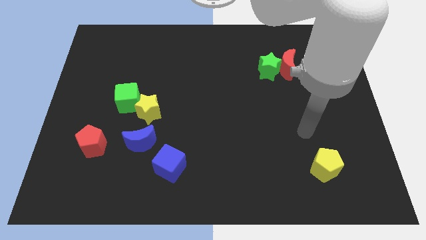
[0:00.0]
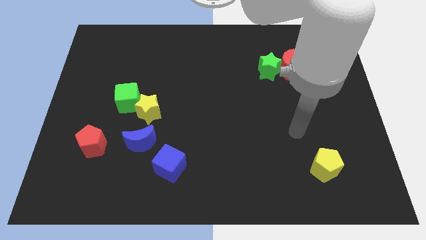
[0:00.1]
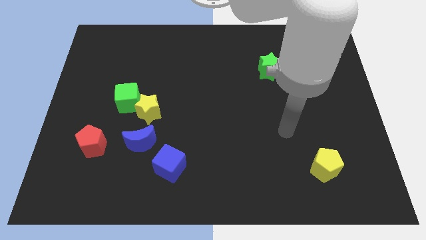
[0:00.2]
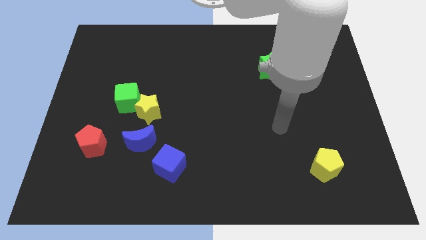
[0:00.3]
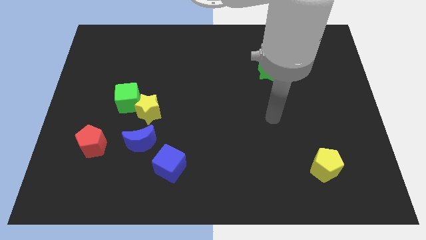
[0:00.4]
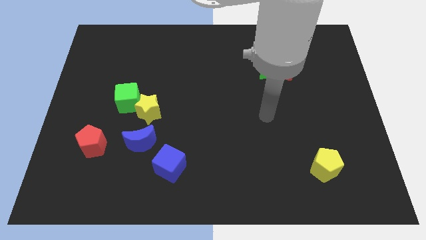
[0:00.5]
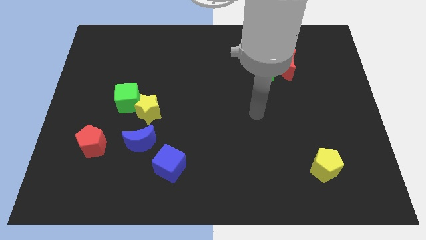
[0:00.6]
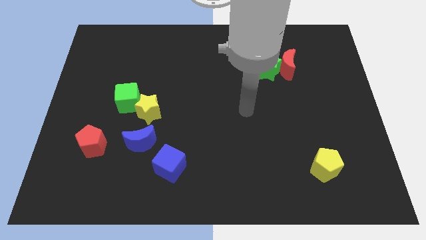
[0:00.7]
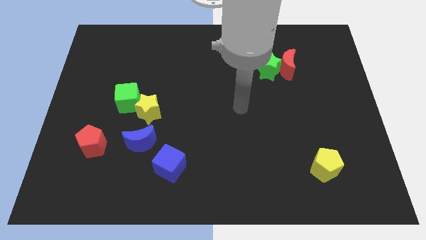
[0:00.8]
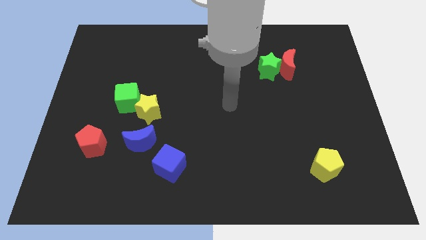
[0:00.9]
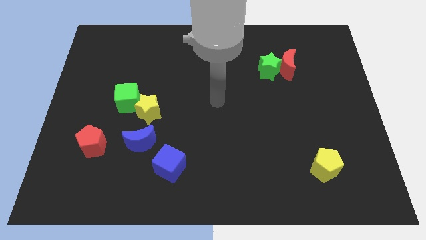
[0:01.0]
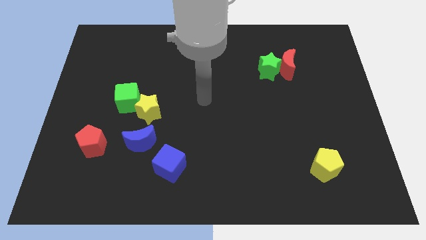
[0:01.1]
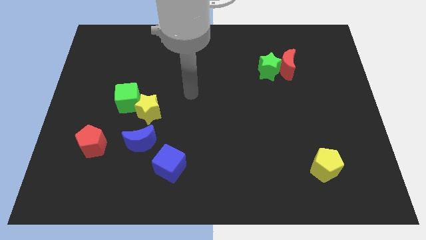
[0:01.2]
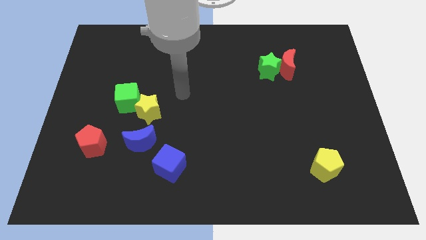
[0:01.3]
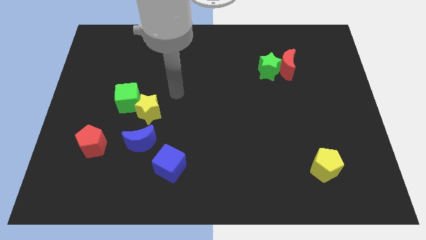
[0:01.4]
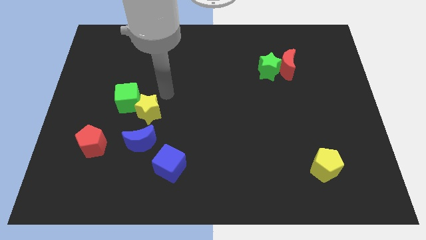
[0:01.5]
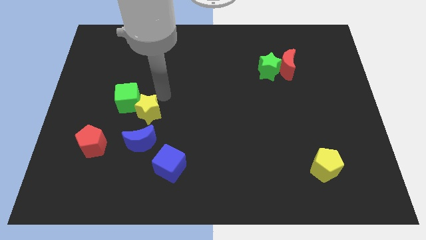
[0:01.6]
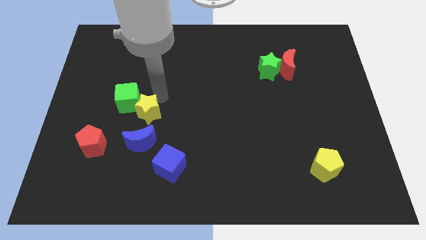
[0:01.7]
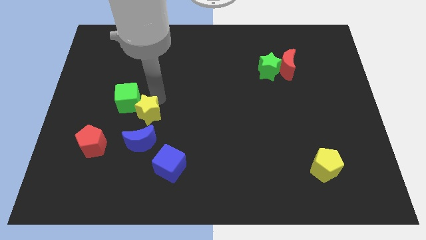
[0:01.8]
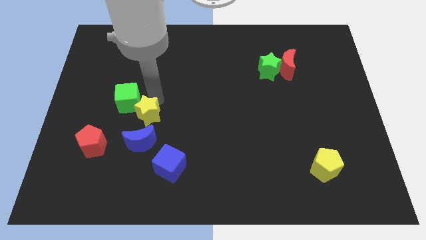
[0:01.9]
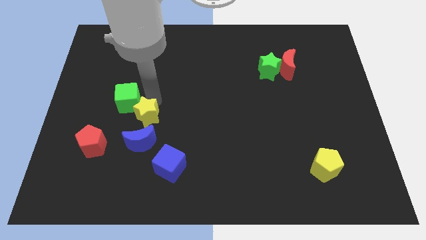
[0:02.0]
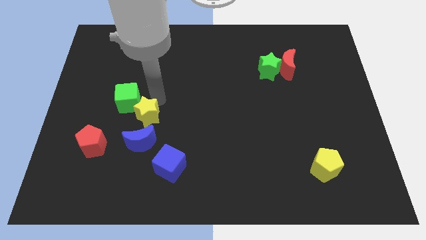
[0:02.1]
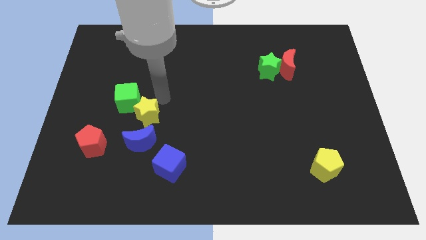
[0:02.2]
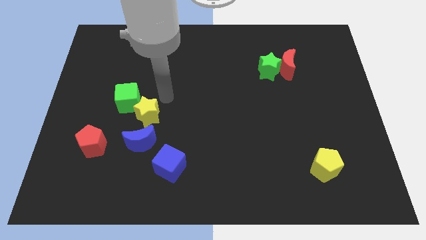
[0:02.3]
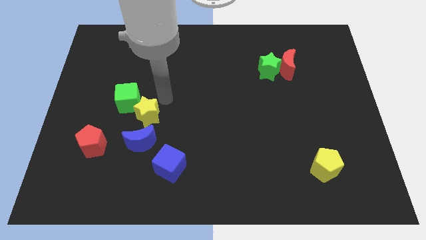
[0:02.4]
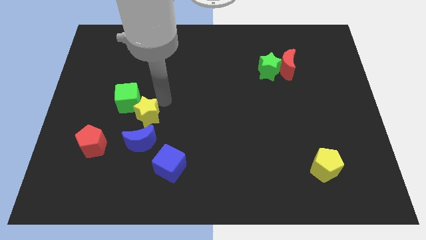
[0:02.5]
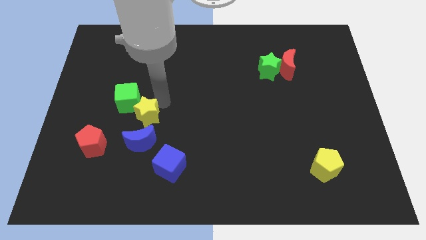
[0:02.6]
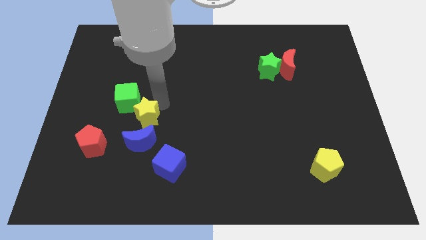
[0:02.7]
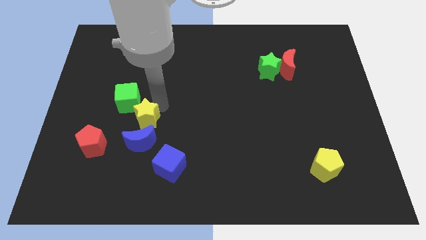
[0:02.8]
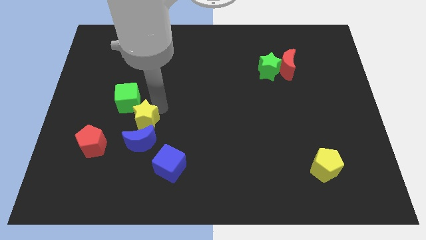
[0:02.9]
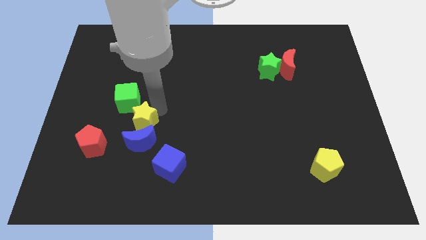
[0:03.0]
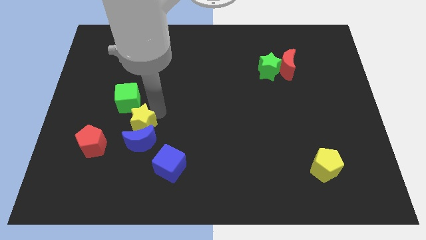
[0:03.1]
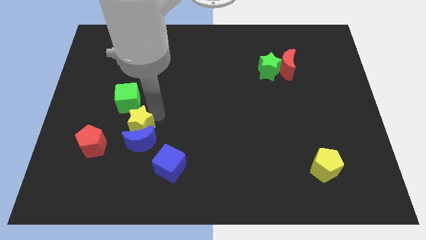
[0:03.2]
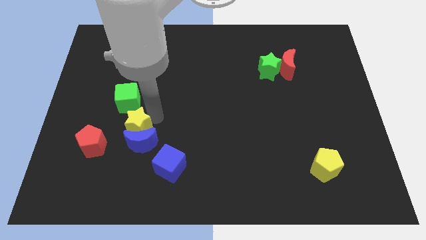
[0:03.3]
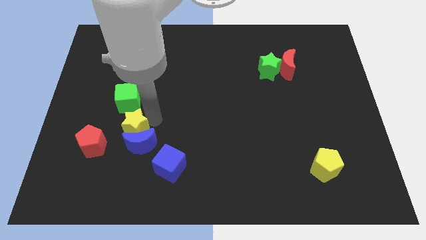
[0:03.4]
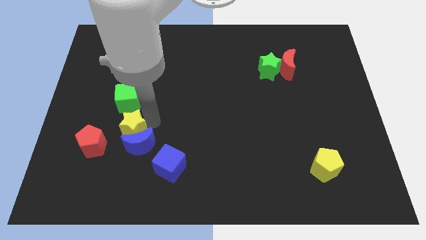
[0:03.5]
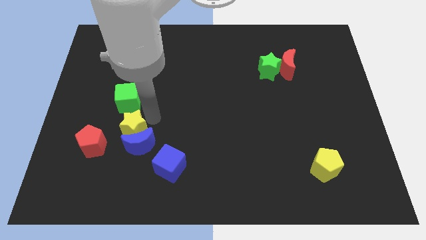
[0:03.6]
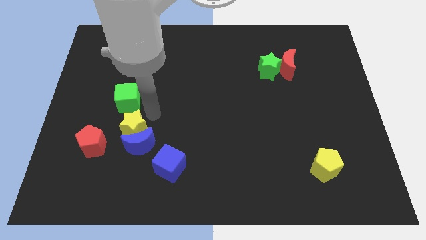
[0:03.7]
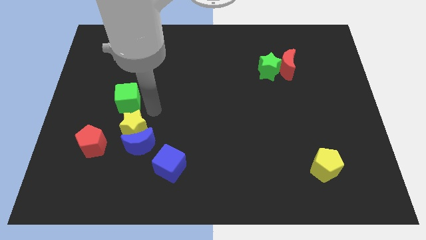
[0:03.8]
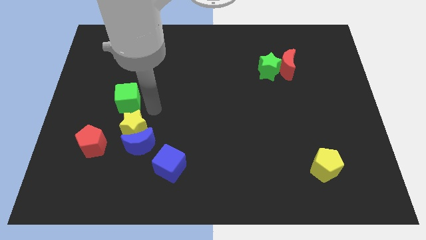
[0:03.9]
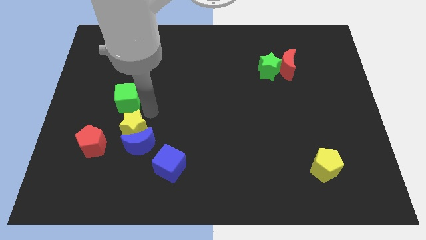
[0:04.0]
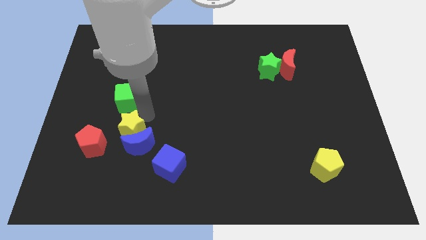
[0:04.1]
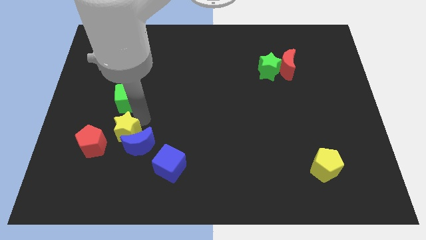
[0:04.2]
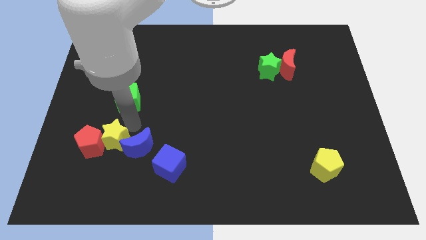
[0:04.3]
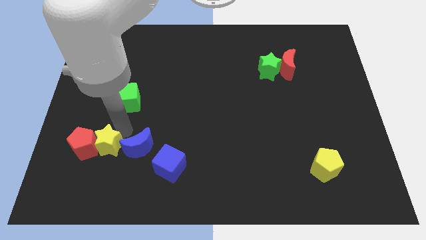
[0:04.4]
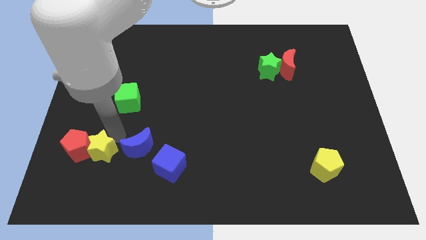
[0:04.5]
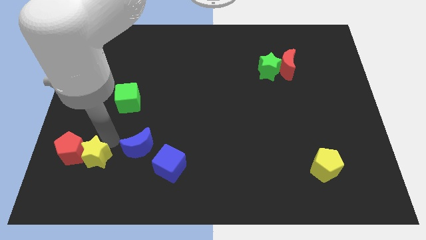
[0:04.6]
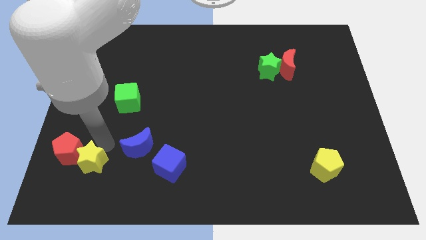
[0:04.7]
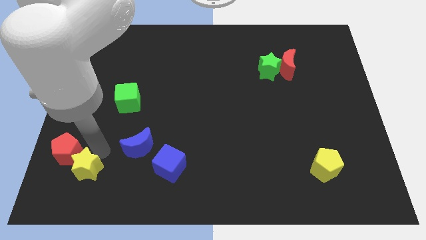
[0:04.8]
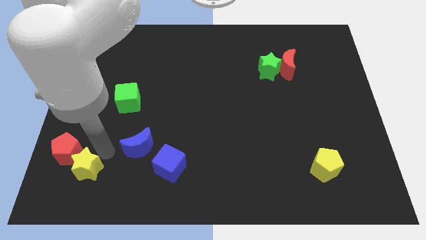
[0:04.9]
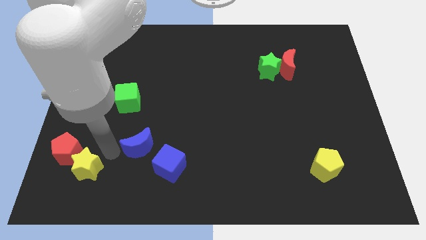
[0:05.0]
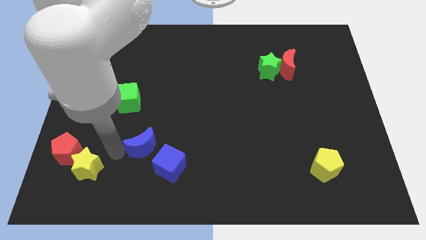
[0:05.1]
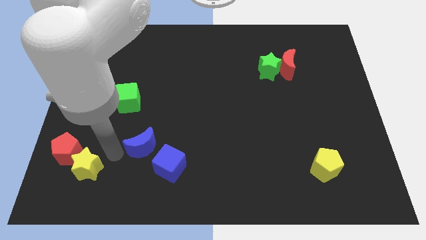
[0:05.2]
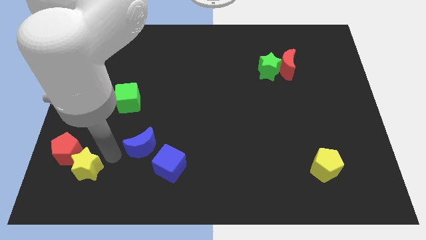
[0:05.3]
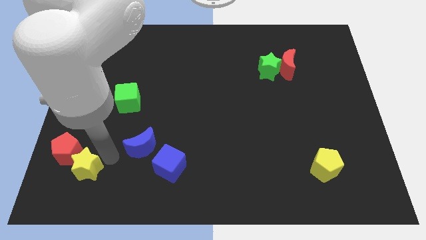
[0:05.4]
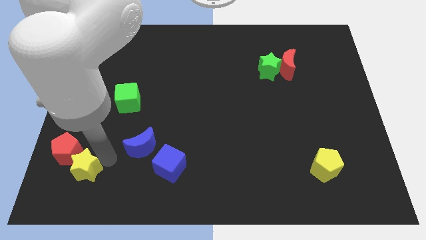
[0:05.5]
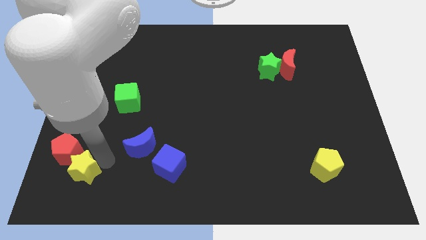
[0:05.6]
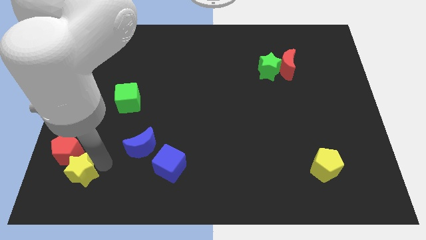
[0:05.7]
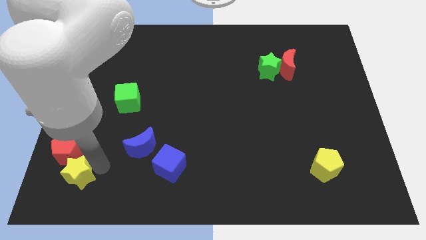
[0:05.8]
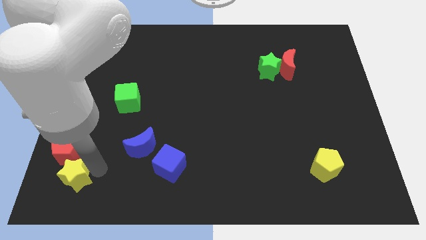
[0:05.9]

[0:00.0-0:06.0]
put the yellow star to the bottom left

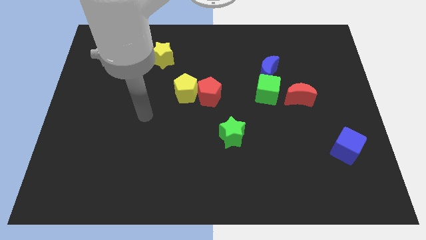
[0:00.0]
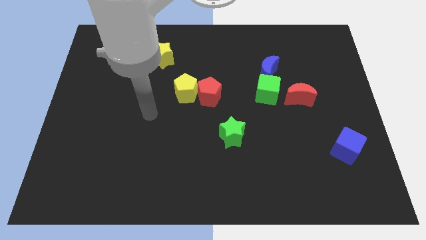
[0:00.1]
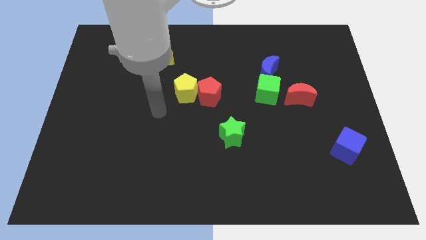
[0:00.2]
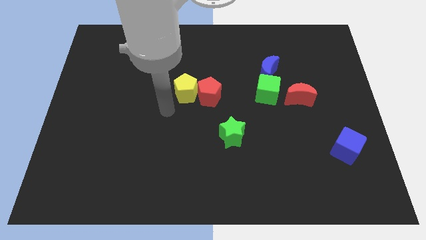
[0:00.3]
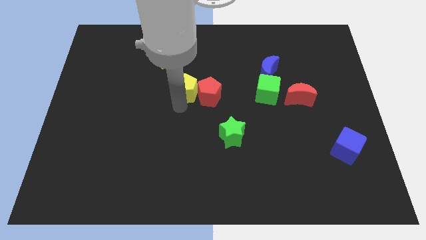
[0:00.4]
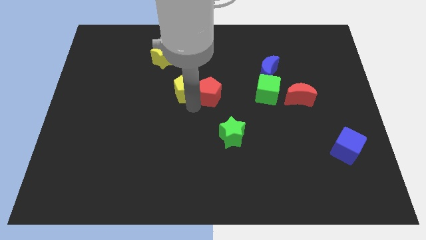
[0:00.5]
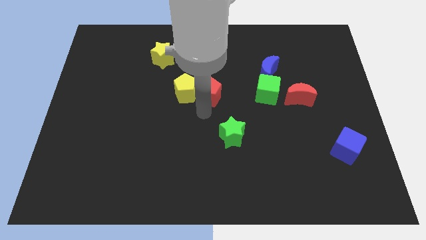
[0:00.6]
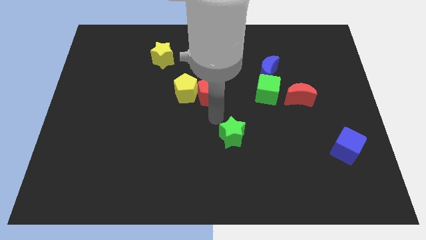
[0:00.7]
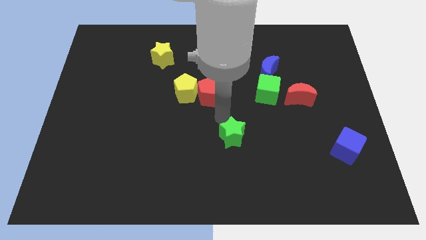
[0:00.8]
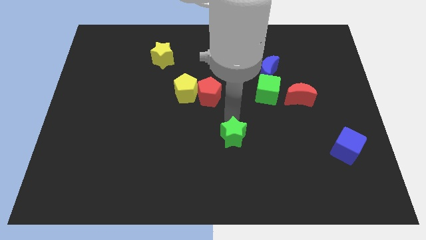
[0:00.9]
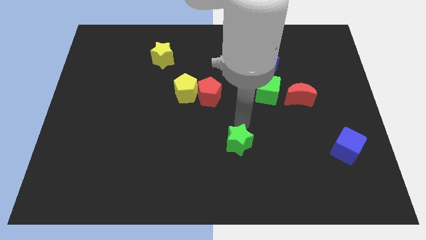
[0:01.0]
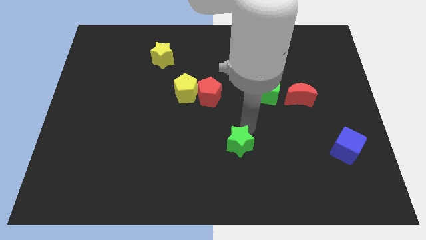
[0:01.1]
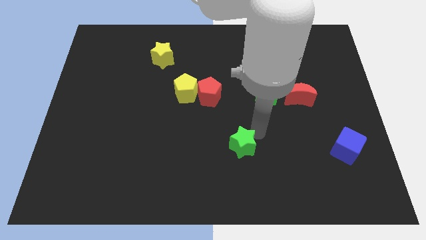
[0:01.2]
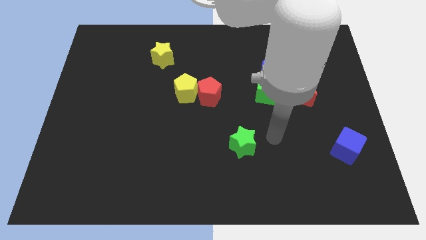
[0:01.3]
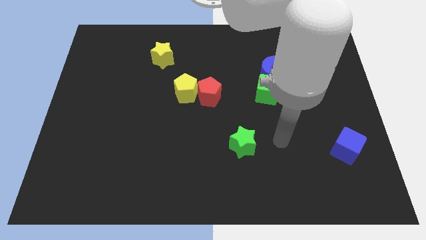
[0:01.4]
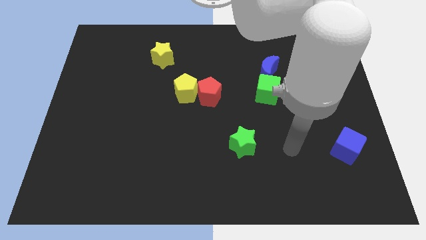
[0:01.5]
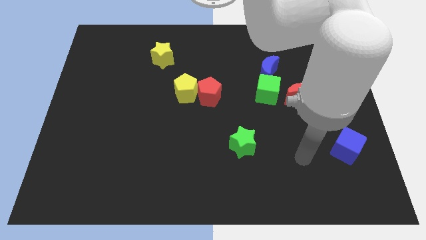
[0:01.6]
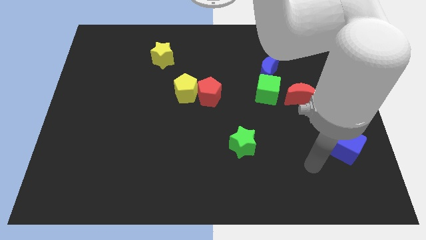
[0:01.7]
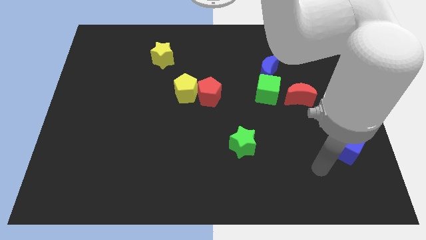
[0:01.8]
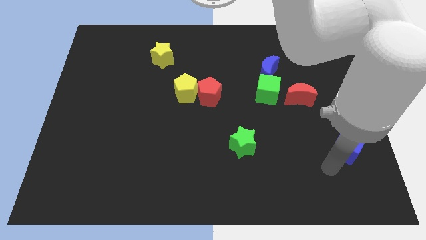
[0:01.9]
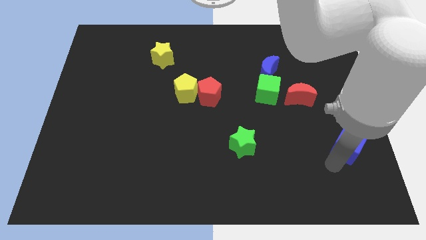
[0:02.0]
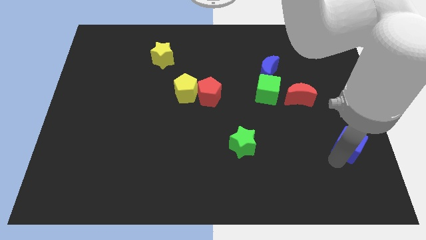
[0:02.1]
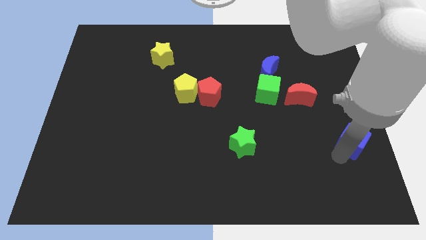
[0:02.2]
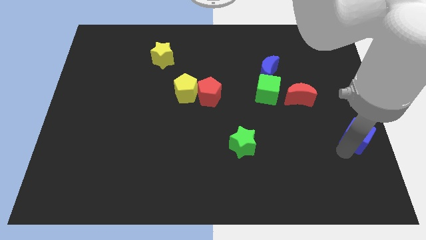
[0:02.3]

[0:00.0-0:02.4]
move the blue cube to the right side of the board
